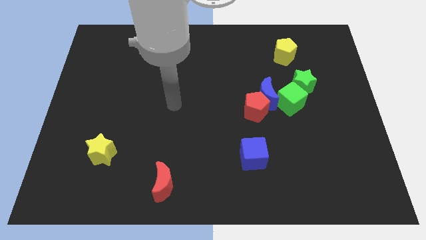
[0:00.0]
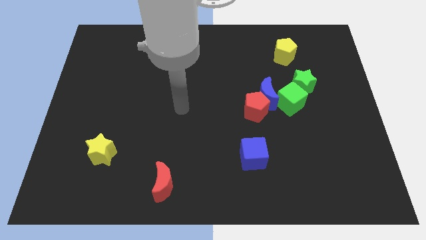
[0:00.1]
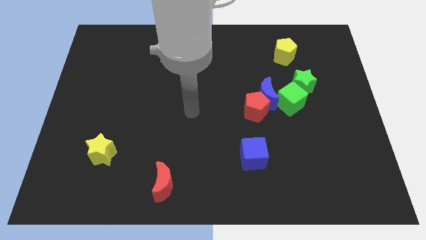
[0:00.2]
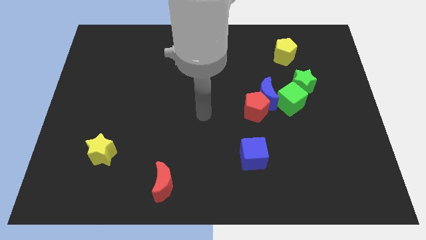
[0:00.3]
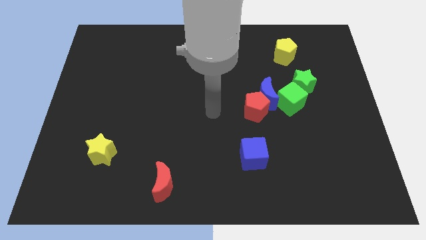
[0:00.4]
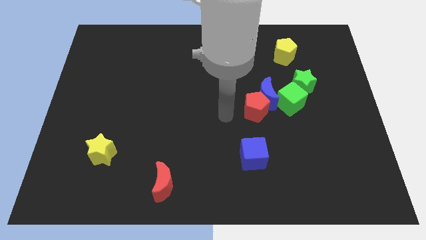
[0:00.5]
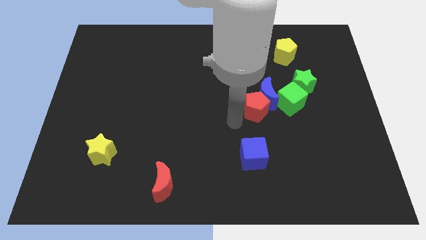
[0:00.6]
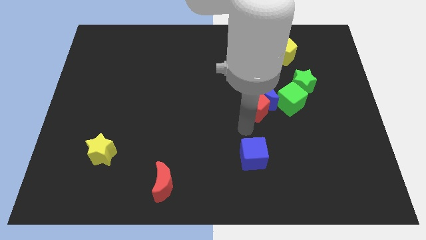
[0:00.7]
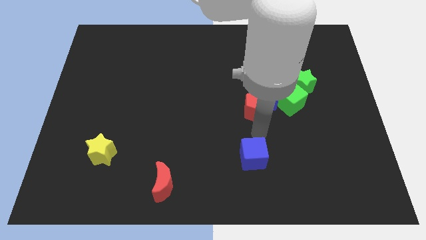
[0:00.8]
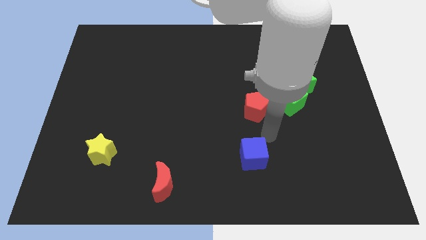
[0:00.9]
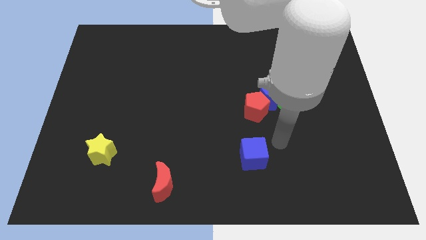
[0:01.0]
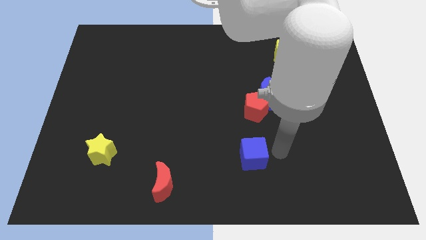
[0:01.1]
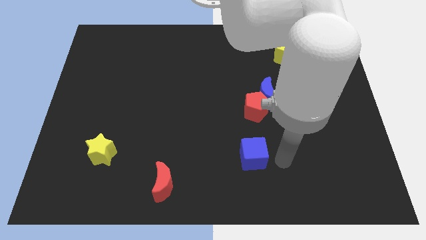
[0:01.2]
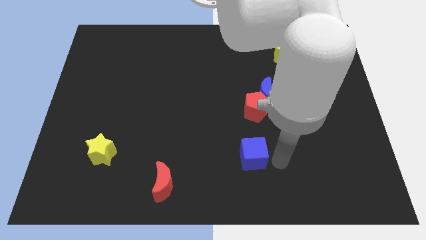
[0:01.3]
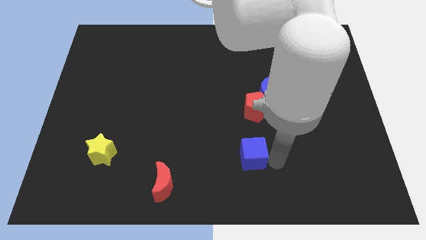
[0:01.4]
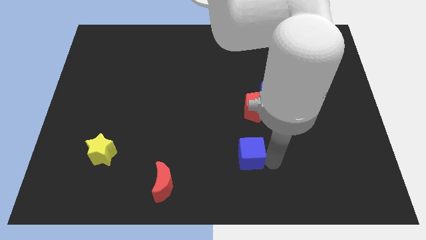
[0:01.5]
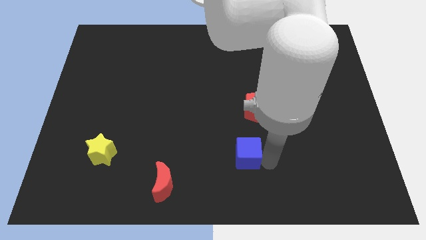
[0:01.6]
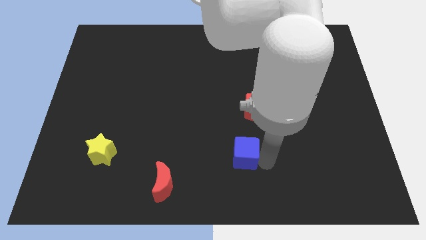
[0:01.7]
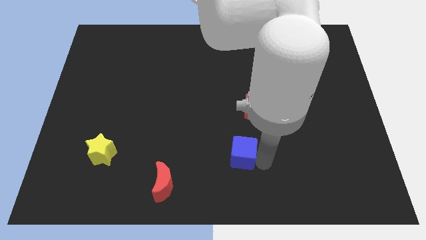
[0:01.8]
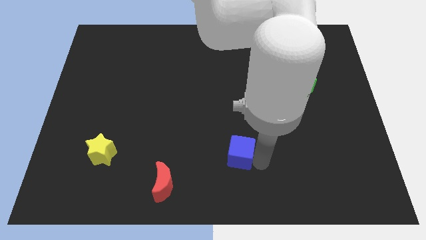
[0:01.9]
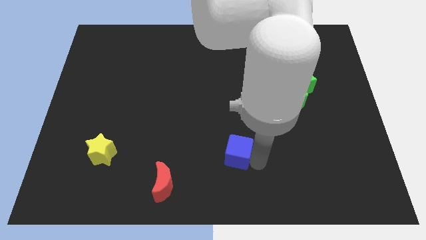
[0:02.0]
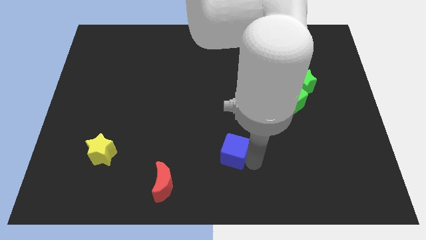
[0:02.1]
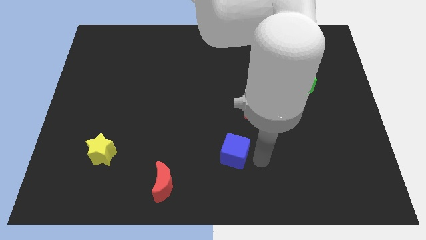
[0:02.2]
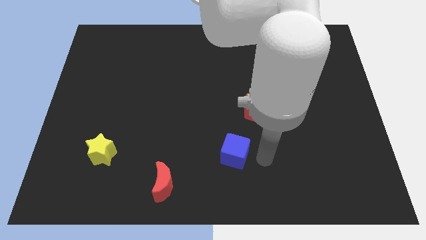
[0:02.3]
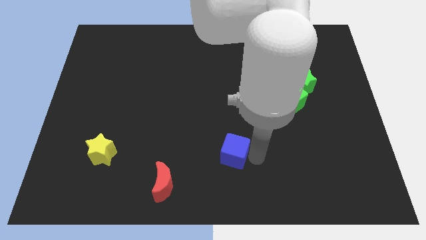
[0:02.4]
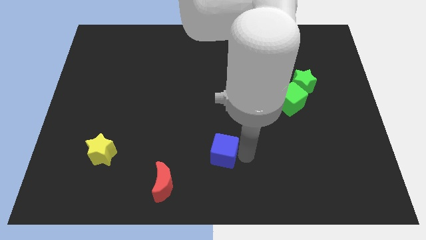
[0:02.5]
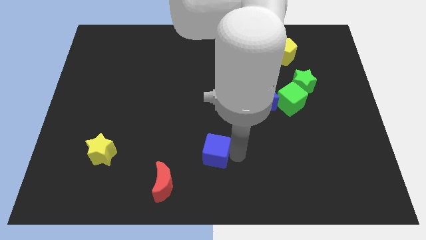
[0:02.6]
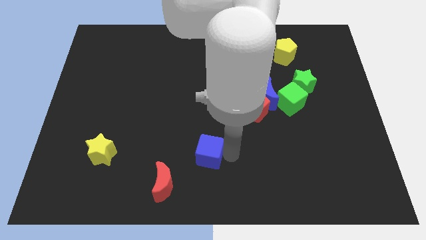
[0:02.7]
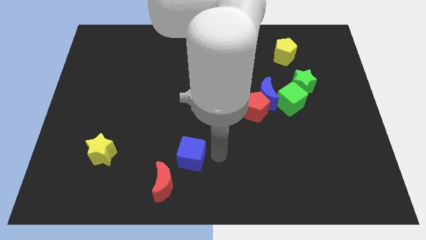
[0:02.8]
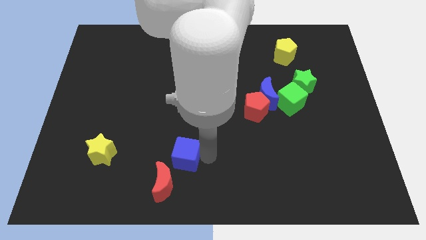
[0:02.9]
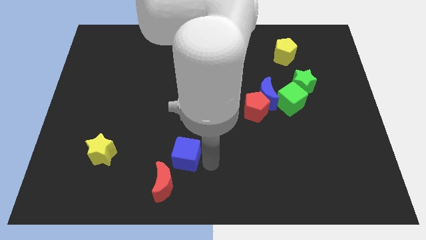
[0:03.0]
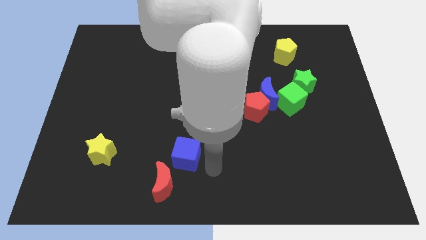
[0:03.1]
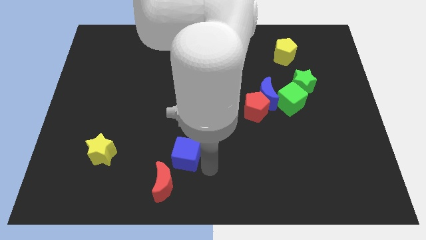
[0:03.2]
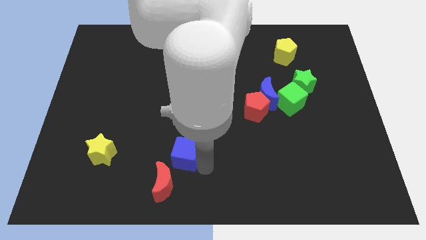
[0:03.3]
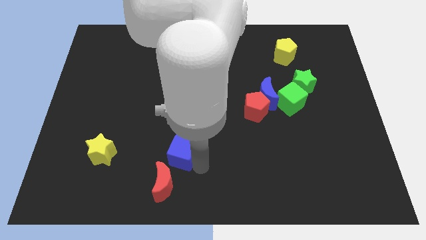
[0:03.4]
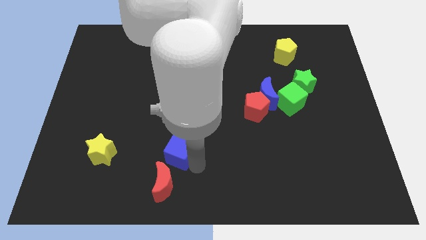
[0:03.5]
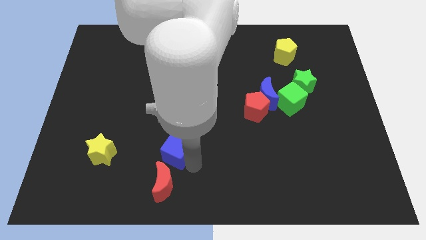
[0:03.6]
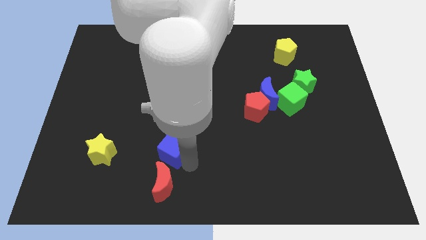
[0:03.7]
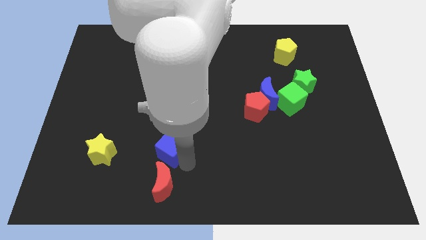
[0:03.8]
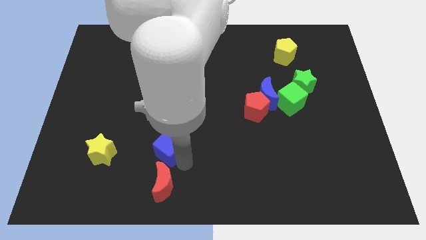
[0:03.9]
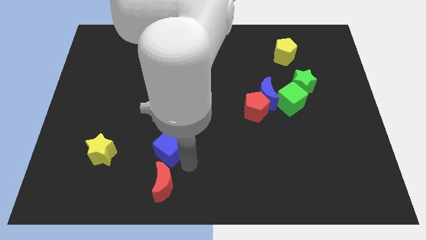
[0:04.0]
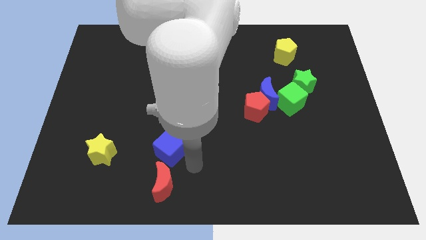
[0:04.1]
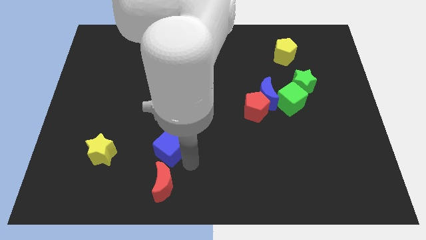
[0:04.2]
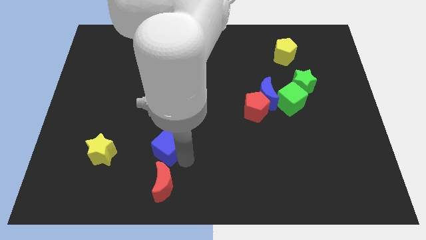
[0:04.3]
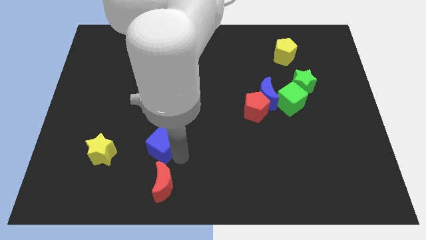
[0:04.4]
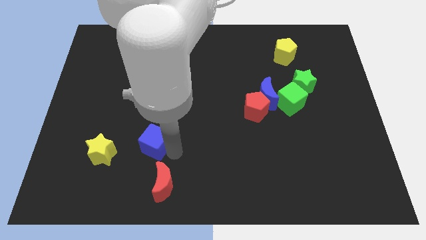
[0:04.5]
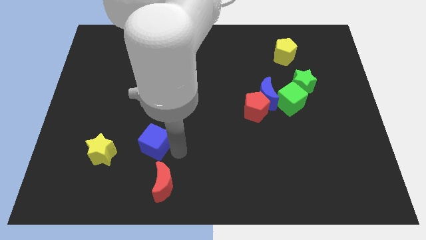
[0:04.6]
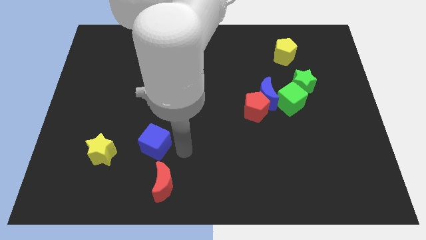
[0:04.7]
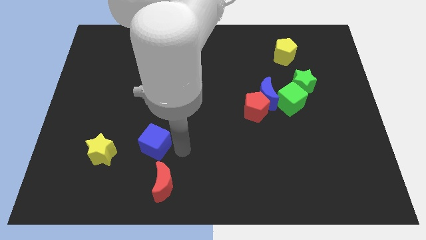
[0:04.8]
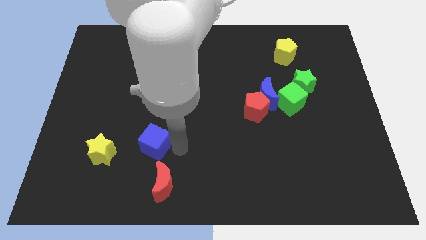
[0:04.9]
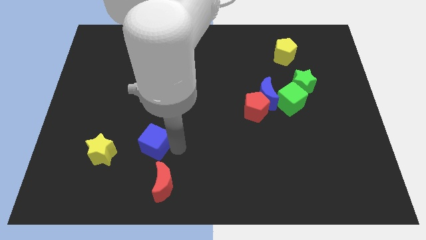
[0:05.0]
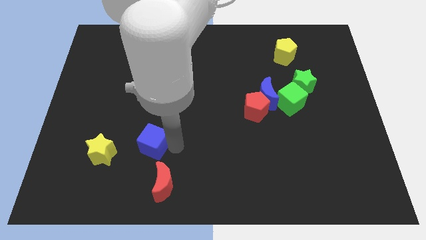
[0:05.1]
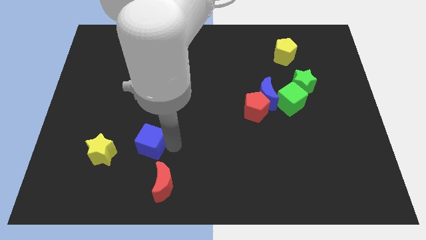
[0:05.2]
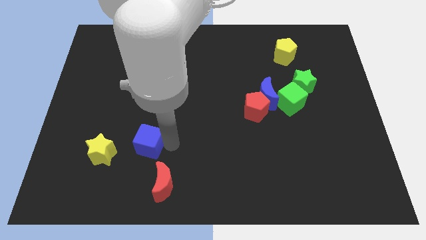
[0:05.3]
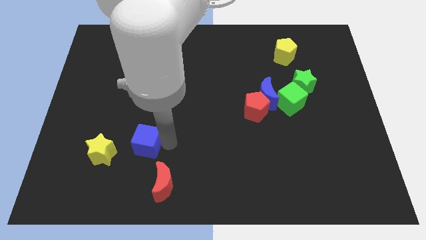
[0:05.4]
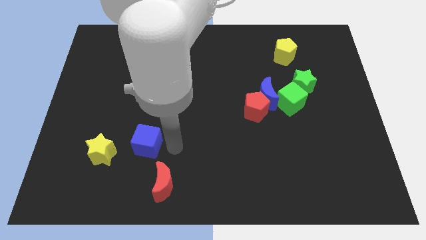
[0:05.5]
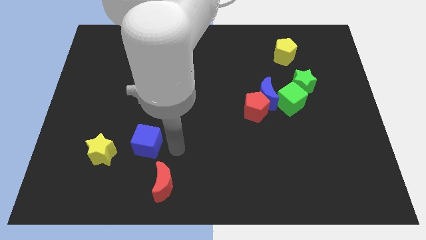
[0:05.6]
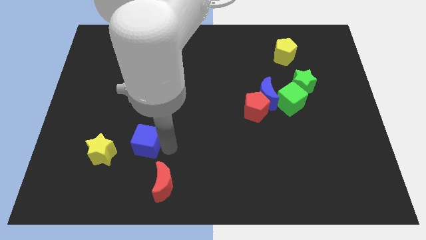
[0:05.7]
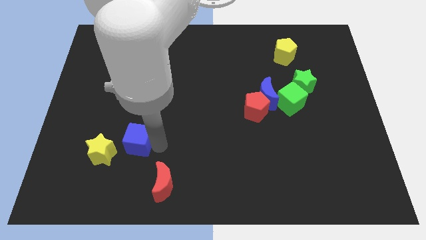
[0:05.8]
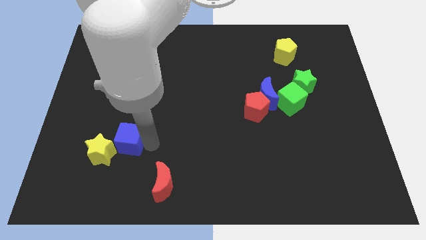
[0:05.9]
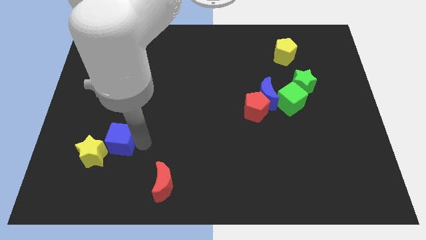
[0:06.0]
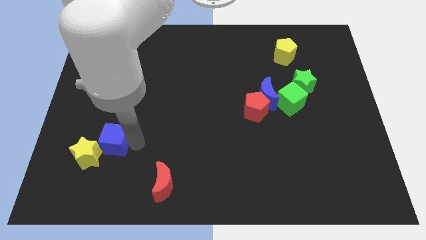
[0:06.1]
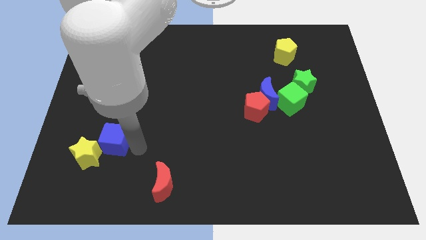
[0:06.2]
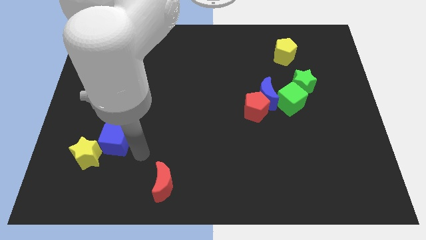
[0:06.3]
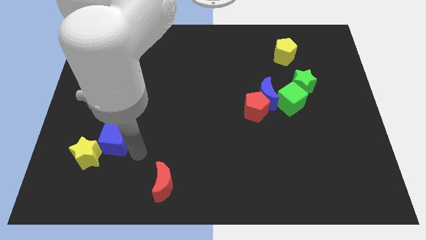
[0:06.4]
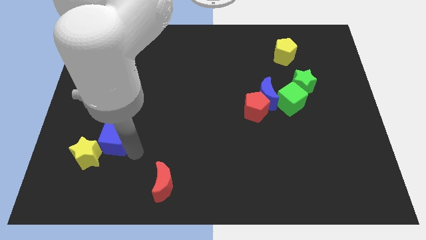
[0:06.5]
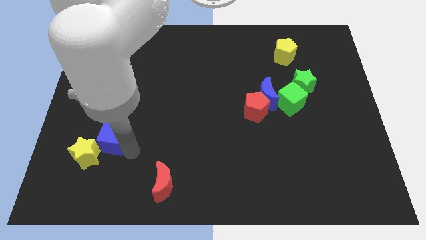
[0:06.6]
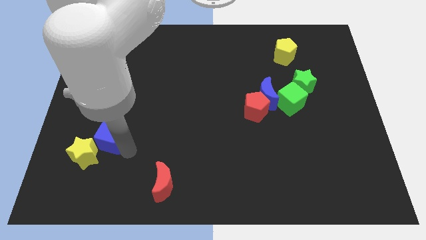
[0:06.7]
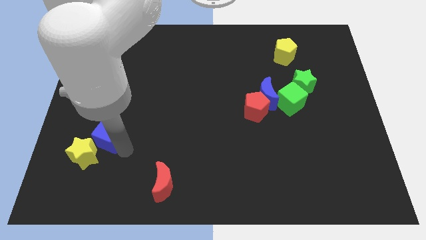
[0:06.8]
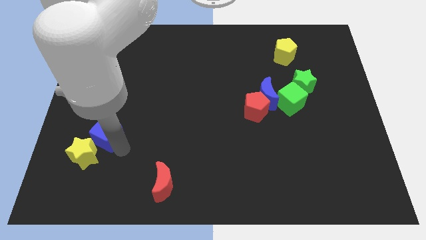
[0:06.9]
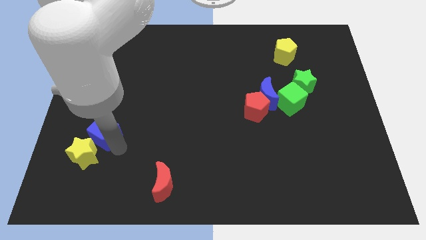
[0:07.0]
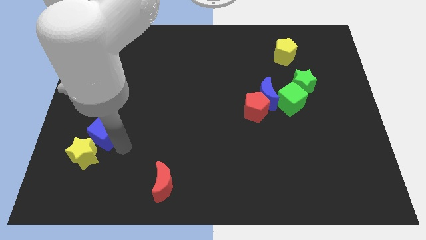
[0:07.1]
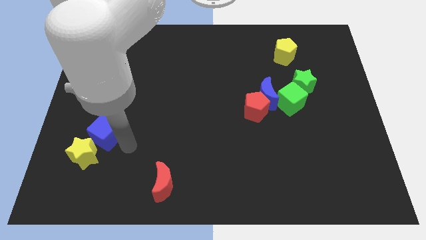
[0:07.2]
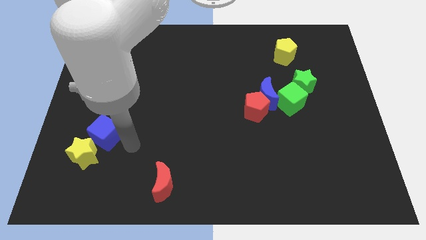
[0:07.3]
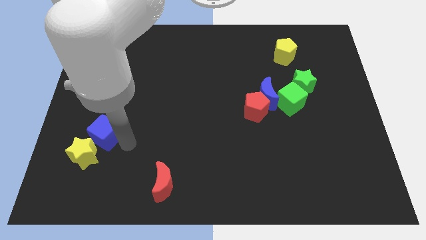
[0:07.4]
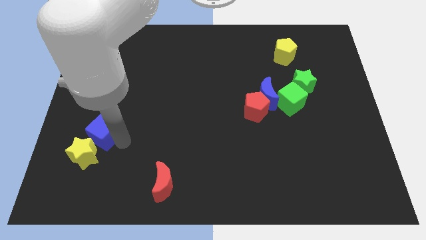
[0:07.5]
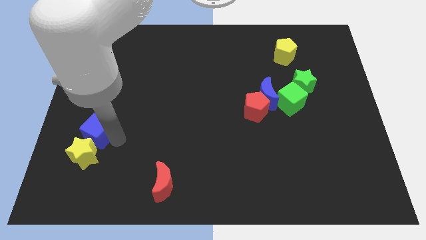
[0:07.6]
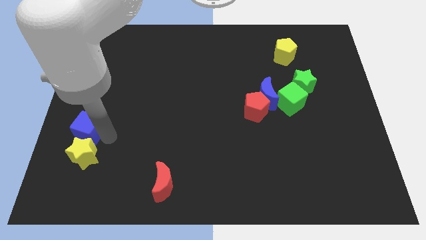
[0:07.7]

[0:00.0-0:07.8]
push the blue cube to the left side
